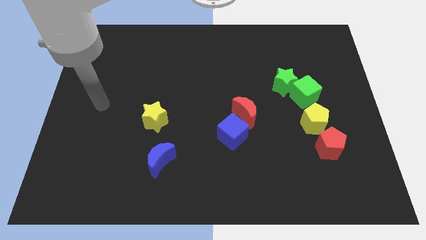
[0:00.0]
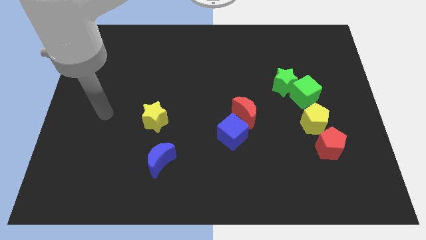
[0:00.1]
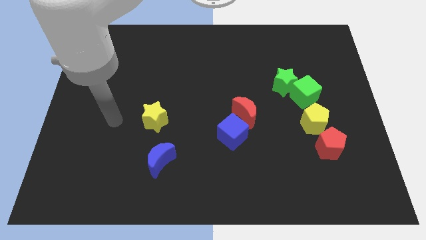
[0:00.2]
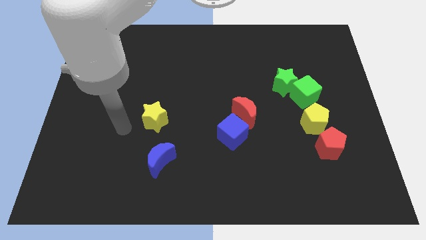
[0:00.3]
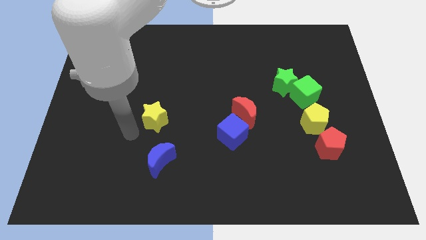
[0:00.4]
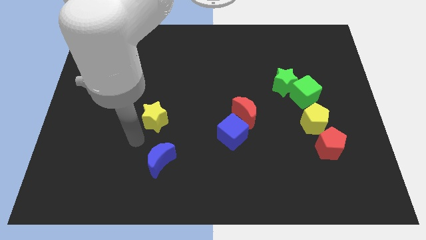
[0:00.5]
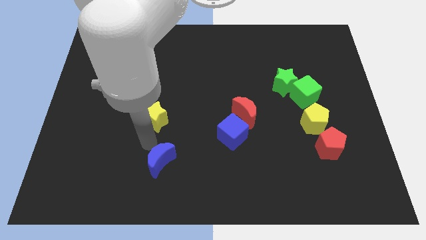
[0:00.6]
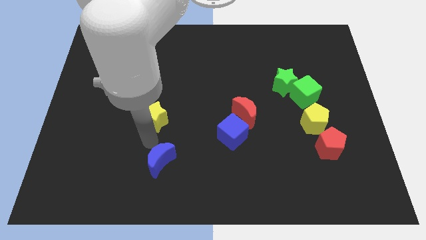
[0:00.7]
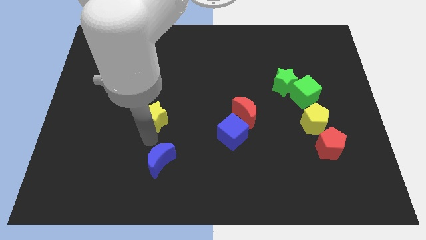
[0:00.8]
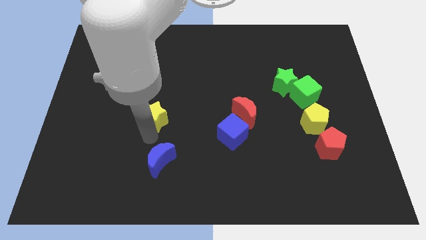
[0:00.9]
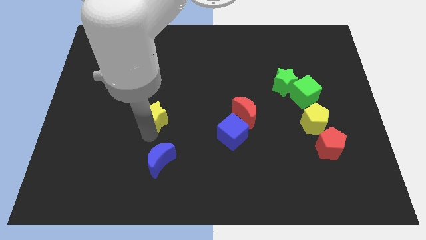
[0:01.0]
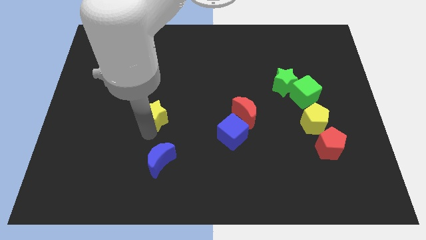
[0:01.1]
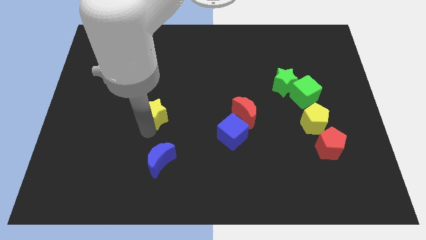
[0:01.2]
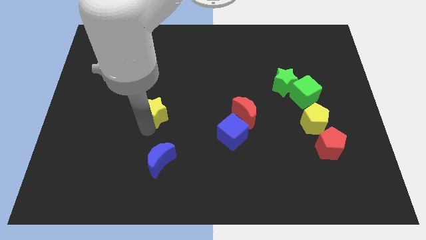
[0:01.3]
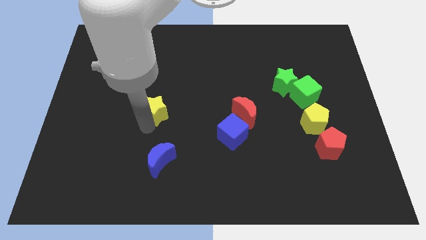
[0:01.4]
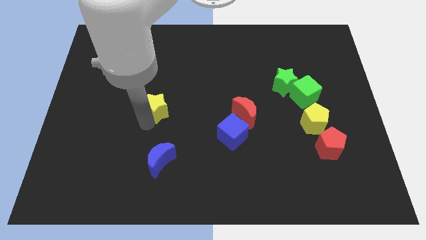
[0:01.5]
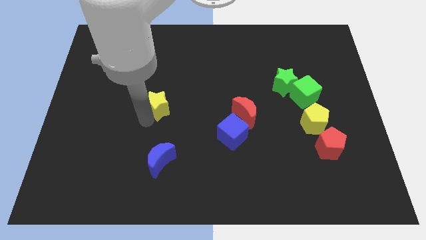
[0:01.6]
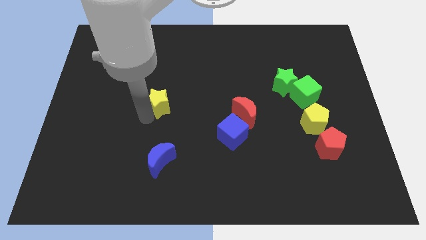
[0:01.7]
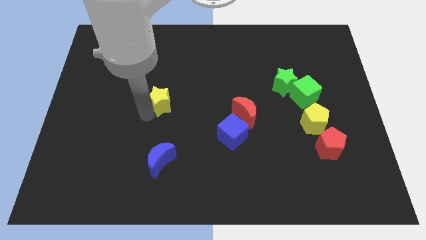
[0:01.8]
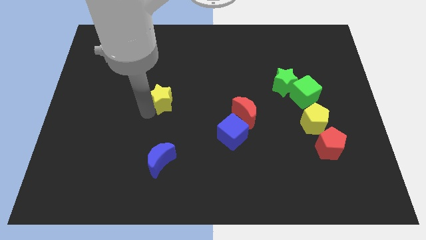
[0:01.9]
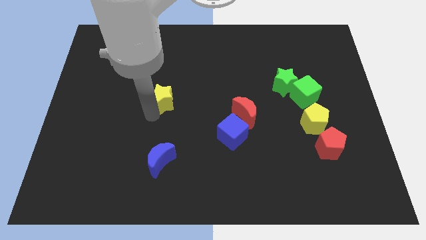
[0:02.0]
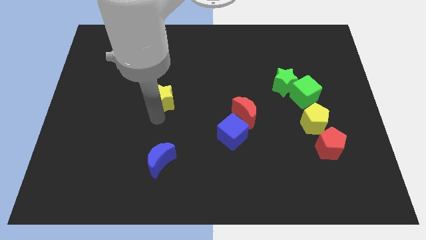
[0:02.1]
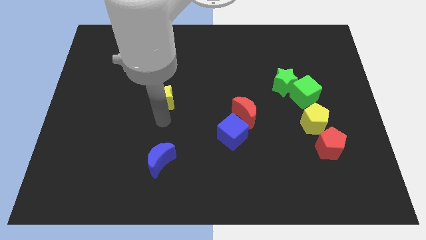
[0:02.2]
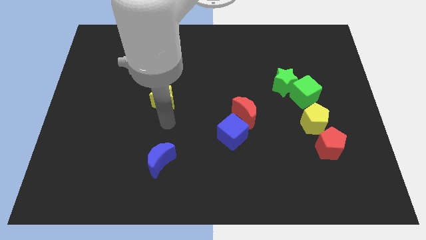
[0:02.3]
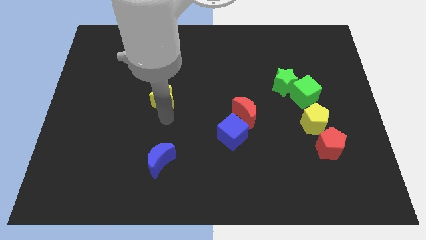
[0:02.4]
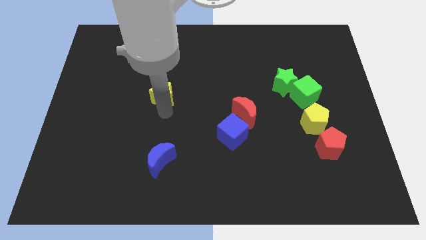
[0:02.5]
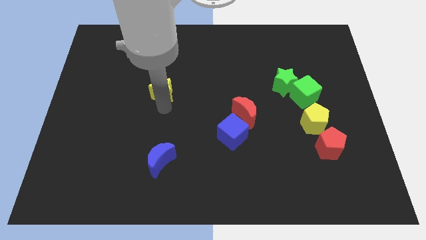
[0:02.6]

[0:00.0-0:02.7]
push the yellow star somewhat up

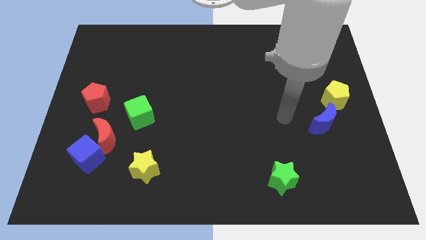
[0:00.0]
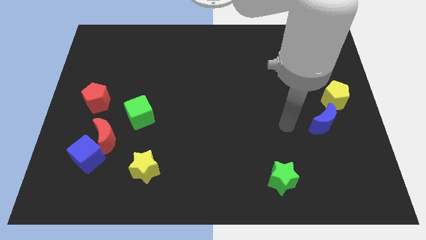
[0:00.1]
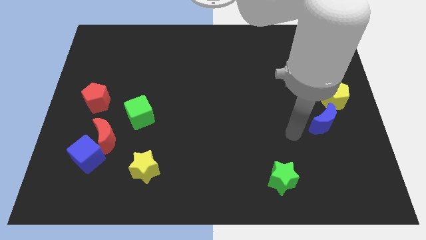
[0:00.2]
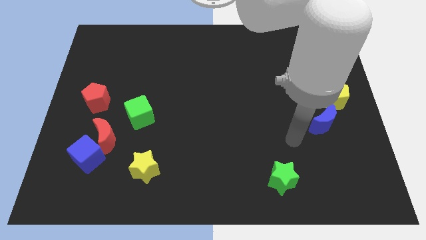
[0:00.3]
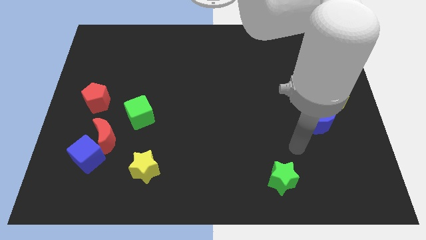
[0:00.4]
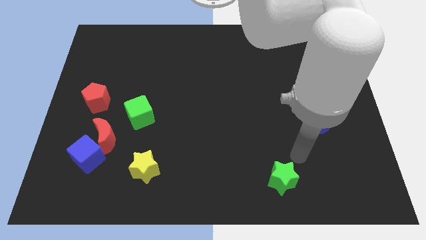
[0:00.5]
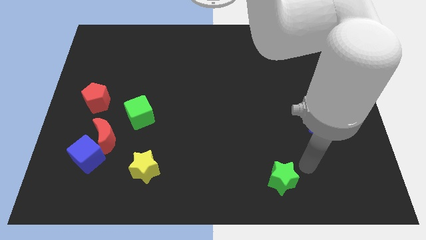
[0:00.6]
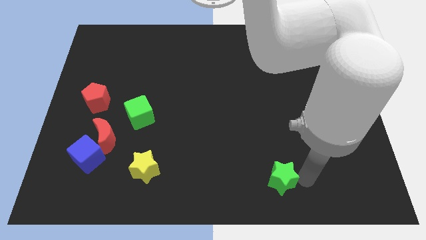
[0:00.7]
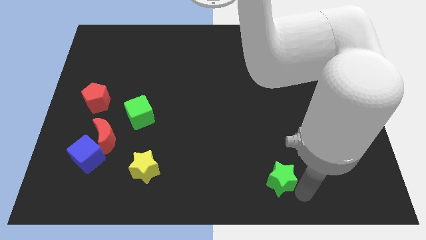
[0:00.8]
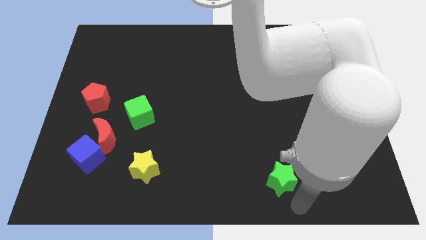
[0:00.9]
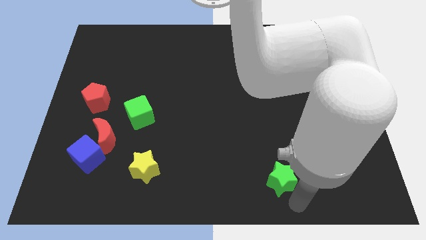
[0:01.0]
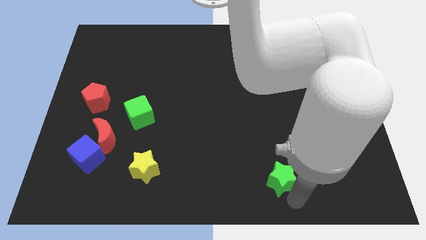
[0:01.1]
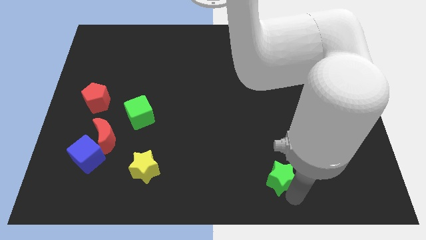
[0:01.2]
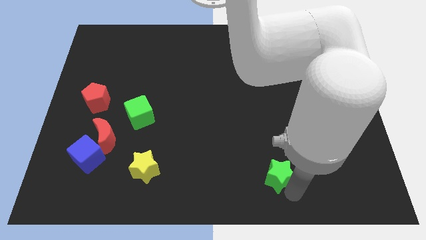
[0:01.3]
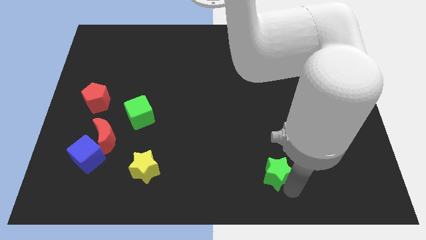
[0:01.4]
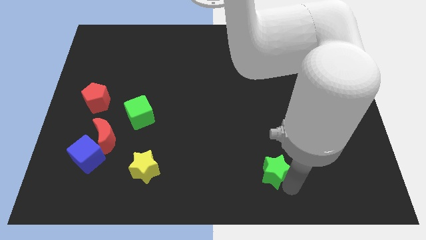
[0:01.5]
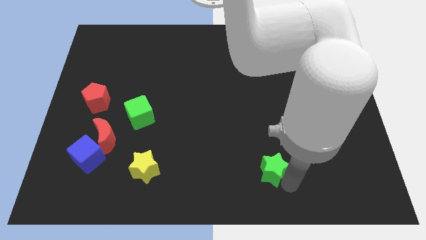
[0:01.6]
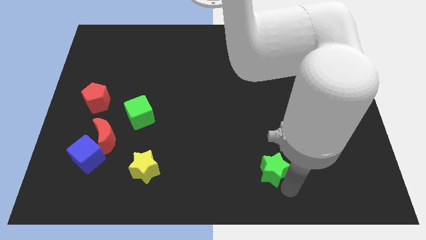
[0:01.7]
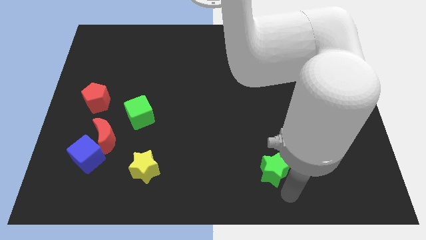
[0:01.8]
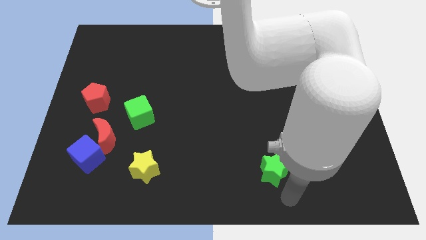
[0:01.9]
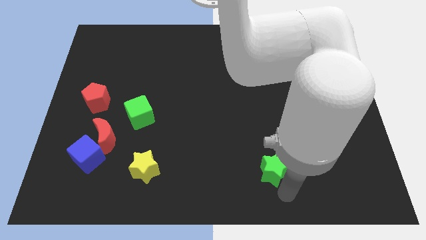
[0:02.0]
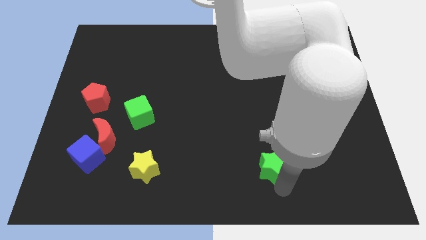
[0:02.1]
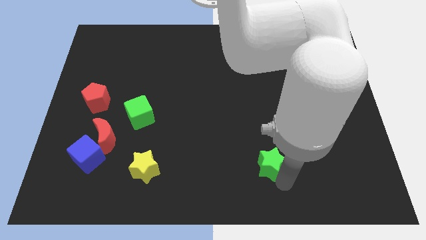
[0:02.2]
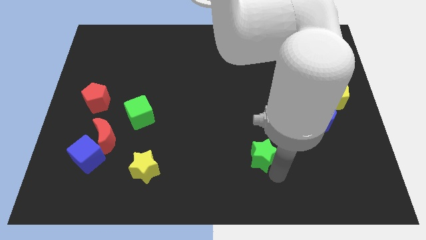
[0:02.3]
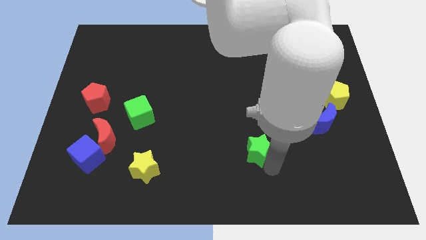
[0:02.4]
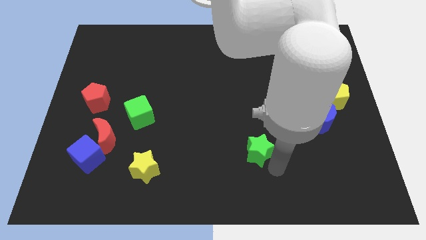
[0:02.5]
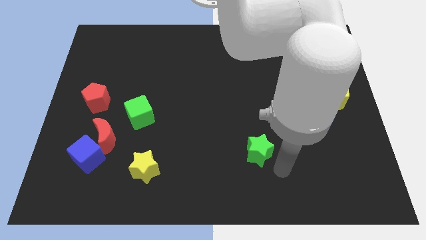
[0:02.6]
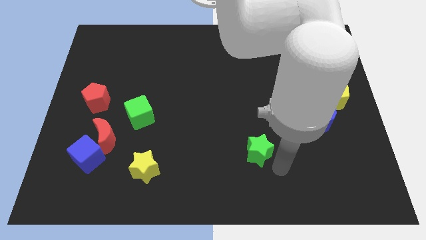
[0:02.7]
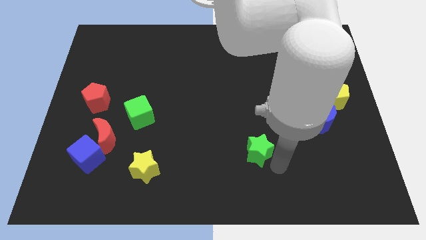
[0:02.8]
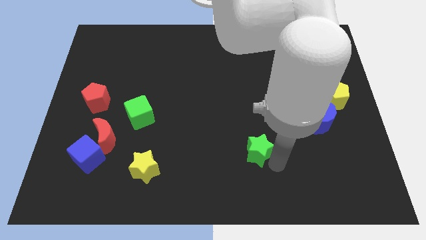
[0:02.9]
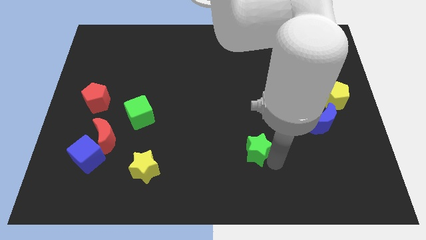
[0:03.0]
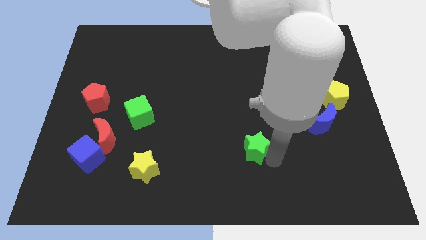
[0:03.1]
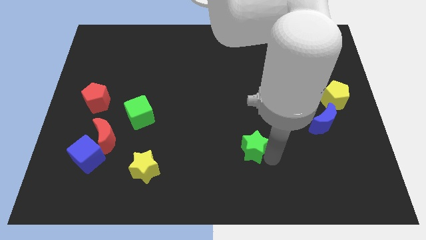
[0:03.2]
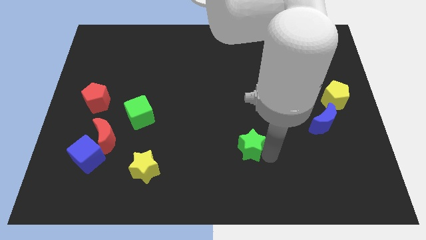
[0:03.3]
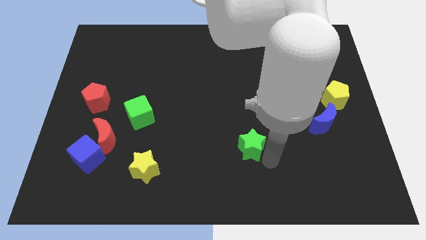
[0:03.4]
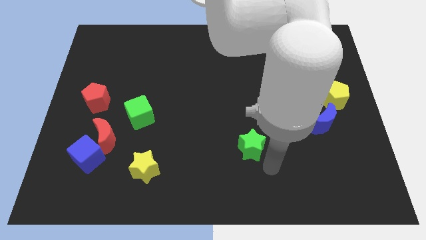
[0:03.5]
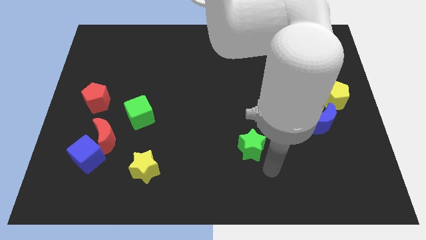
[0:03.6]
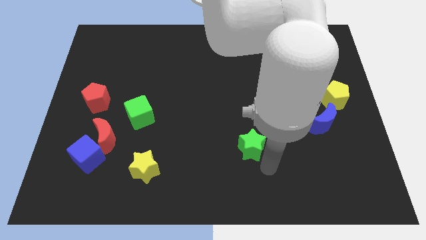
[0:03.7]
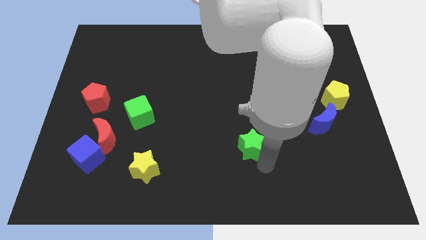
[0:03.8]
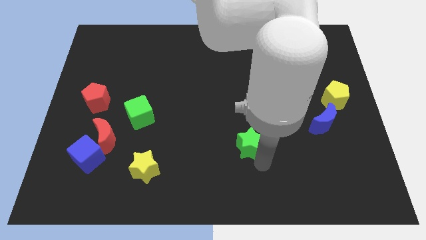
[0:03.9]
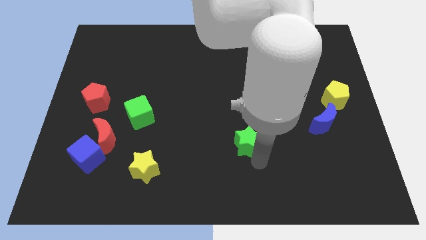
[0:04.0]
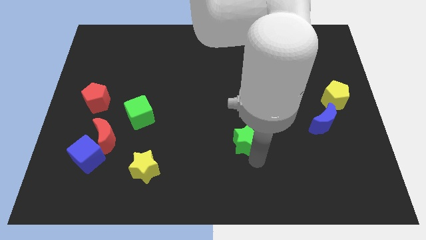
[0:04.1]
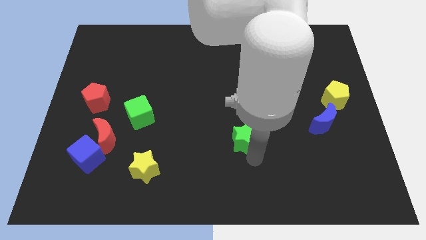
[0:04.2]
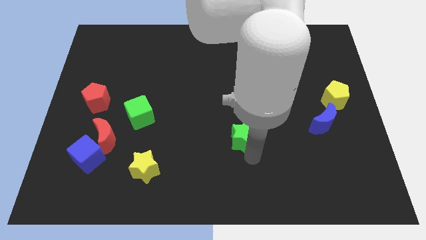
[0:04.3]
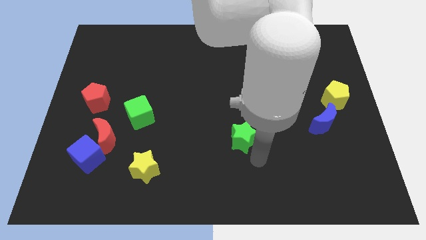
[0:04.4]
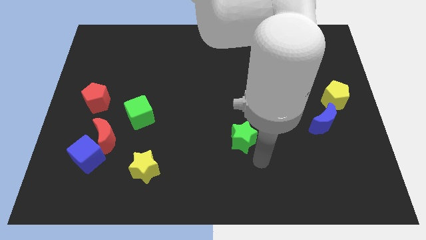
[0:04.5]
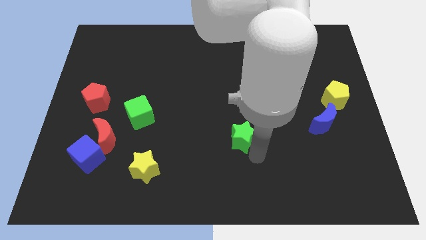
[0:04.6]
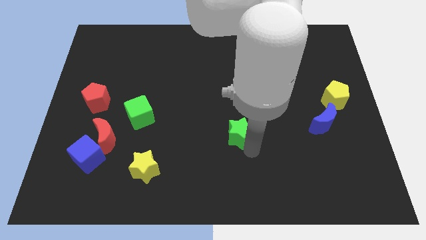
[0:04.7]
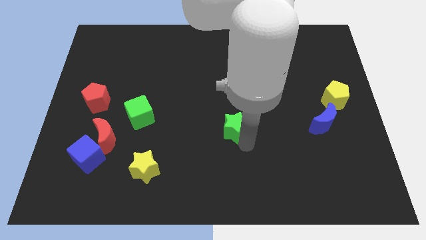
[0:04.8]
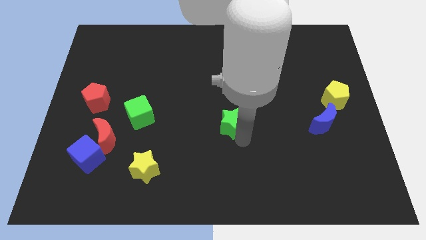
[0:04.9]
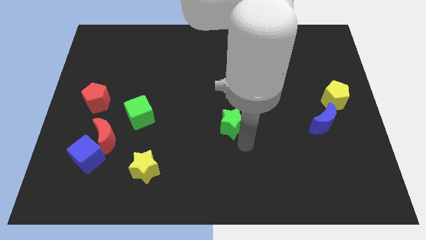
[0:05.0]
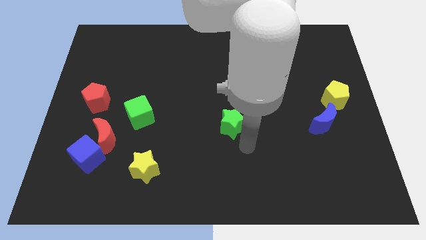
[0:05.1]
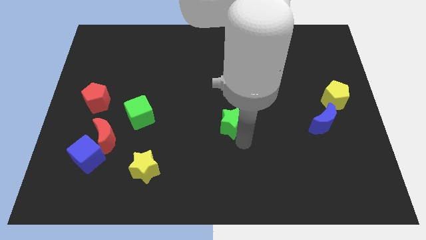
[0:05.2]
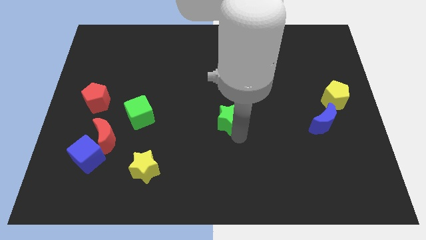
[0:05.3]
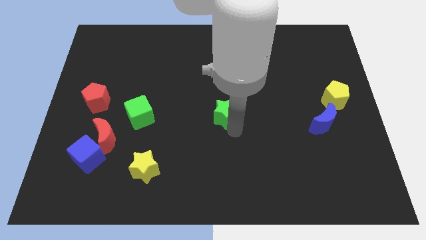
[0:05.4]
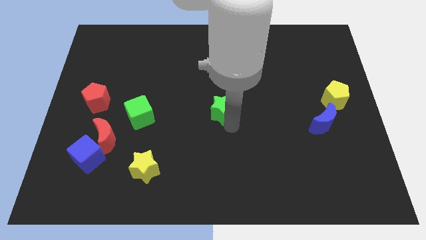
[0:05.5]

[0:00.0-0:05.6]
slide the green star upwards and then to the left
